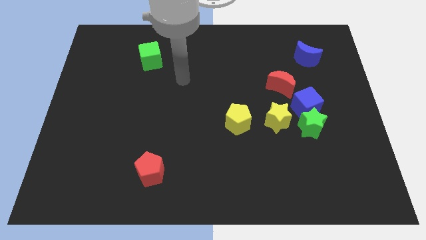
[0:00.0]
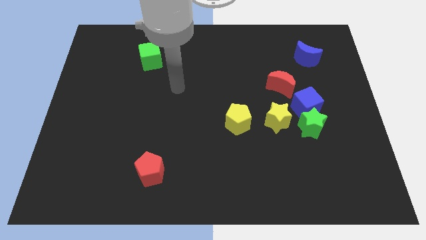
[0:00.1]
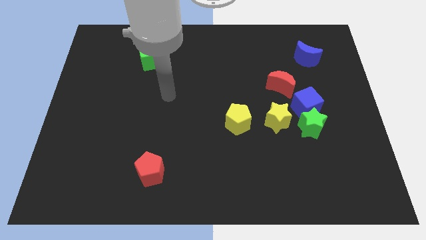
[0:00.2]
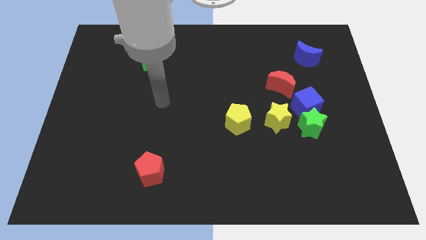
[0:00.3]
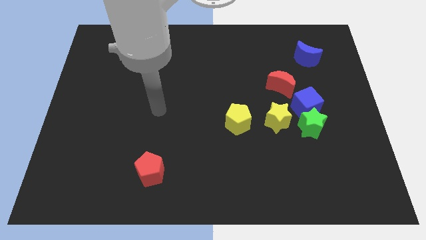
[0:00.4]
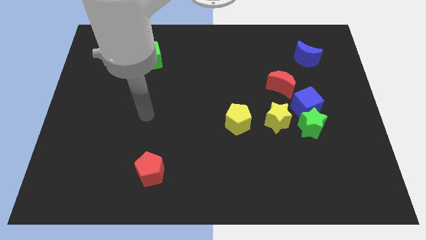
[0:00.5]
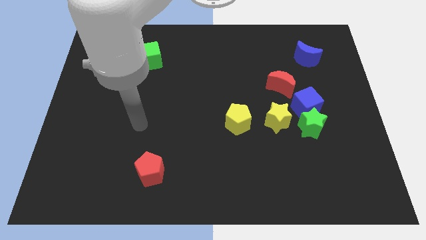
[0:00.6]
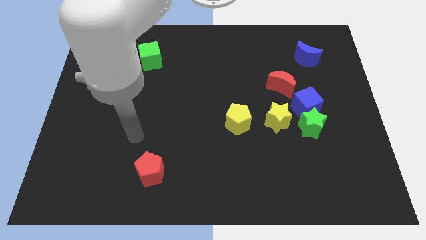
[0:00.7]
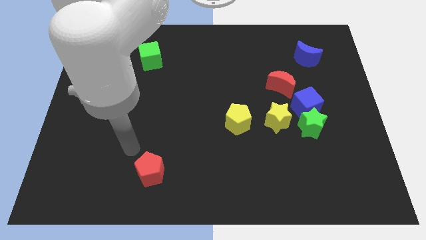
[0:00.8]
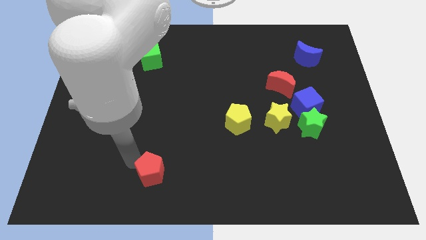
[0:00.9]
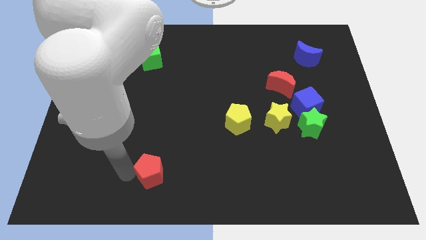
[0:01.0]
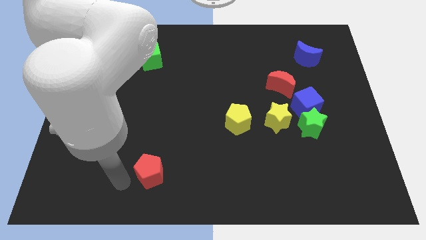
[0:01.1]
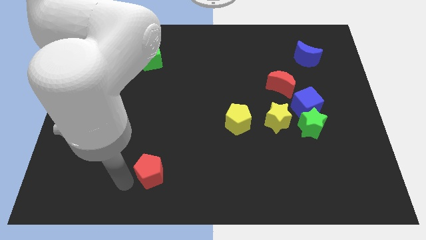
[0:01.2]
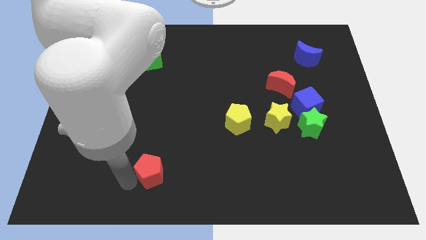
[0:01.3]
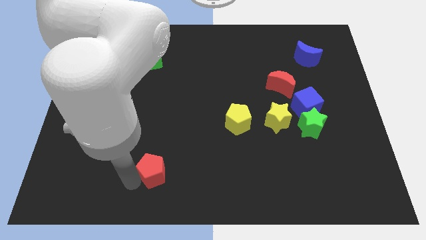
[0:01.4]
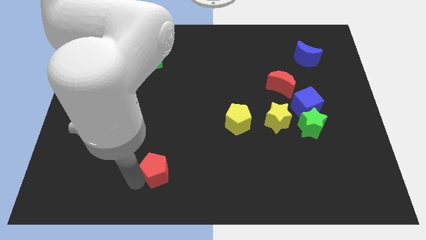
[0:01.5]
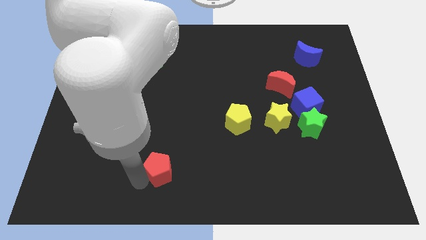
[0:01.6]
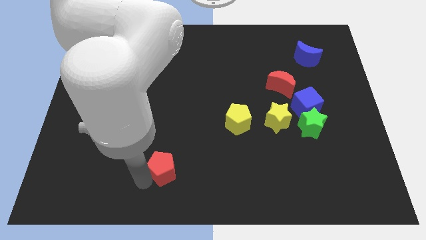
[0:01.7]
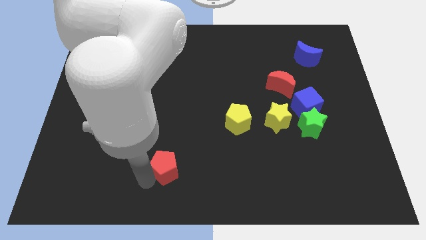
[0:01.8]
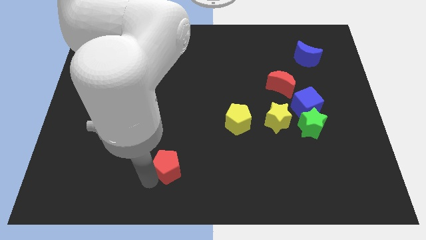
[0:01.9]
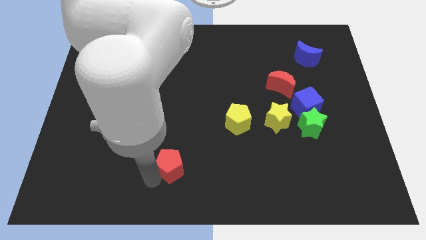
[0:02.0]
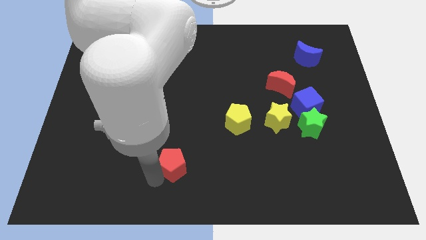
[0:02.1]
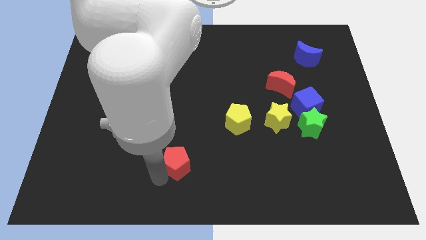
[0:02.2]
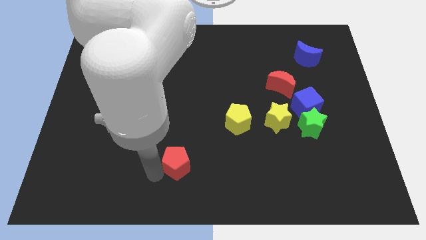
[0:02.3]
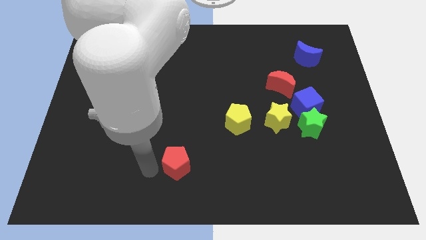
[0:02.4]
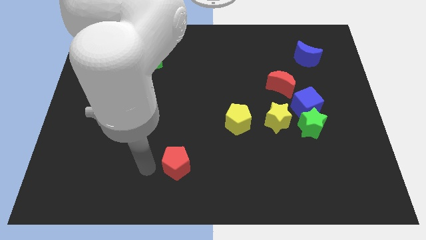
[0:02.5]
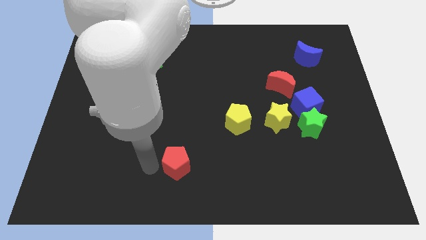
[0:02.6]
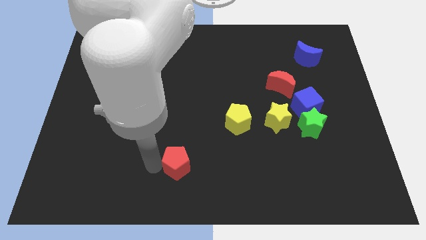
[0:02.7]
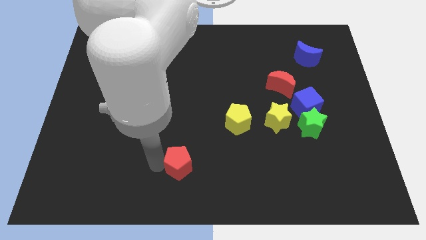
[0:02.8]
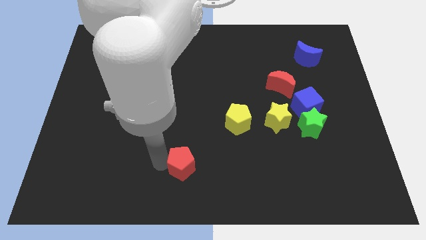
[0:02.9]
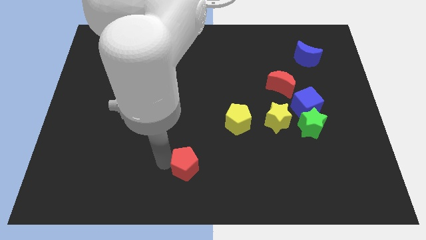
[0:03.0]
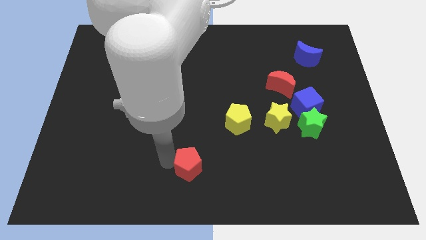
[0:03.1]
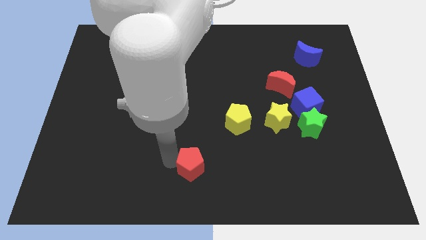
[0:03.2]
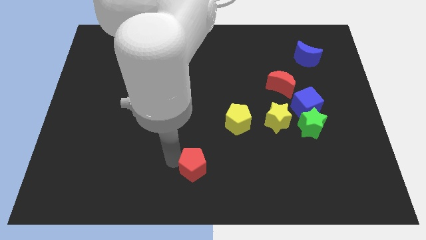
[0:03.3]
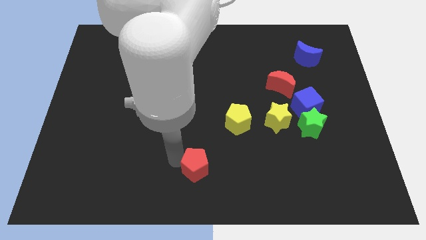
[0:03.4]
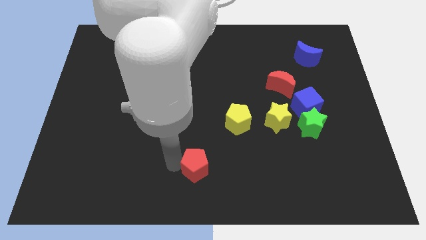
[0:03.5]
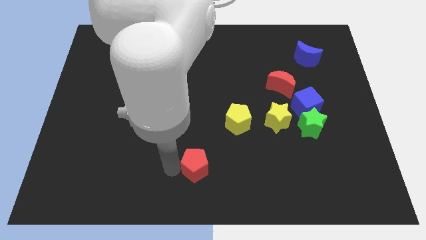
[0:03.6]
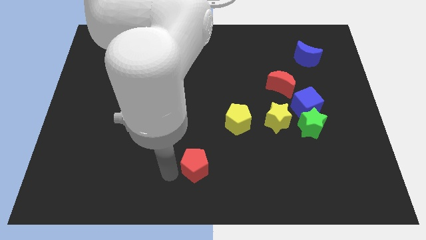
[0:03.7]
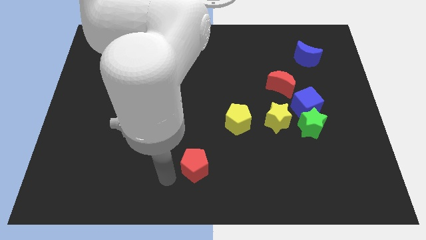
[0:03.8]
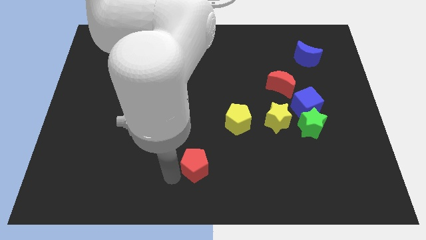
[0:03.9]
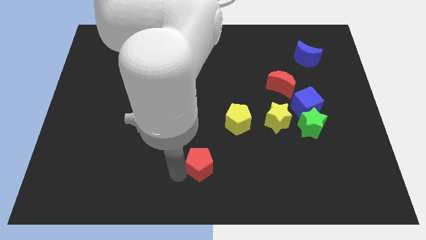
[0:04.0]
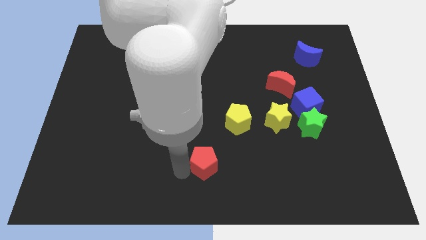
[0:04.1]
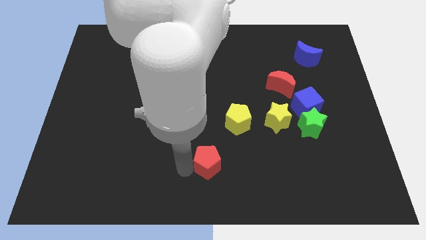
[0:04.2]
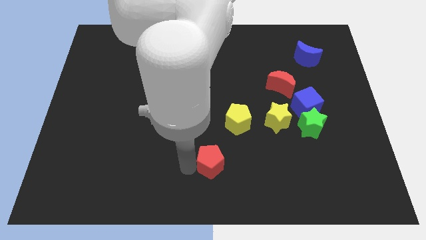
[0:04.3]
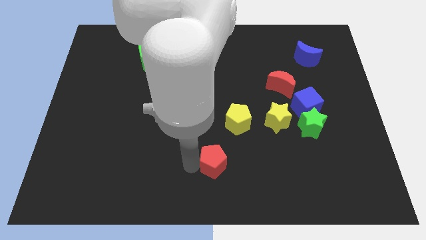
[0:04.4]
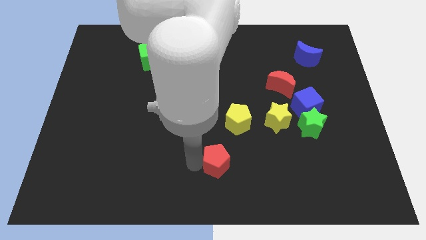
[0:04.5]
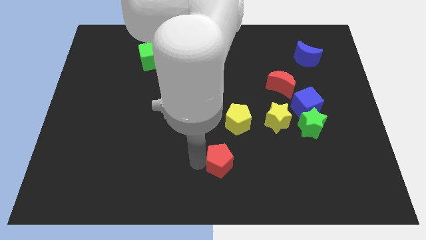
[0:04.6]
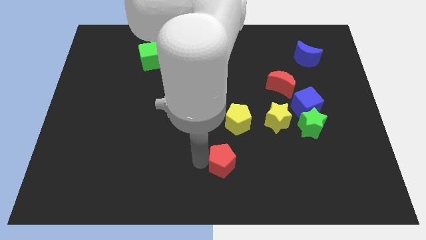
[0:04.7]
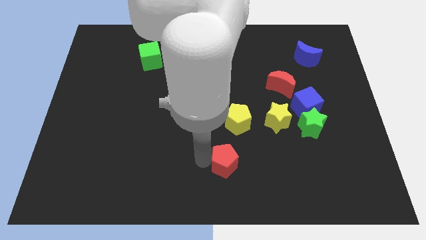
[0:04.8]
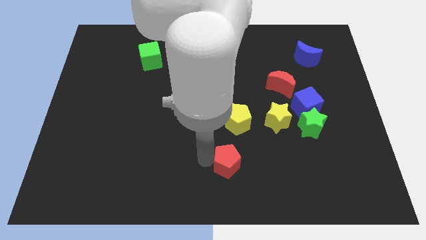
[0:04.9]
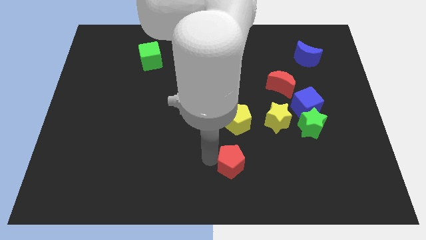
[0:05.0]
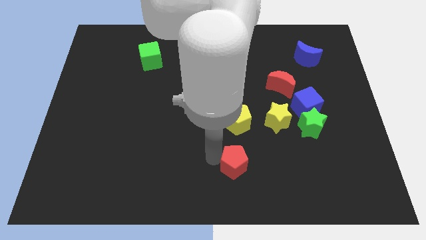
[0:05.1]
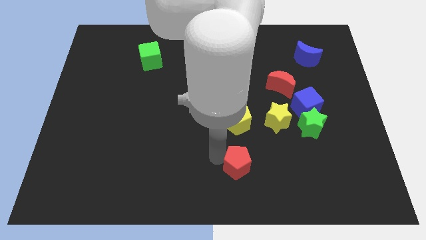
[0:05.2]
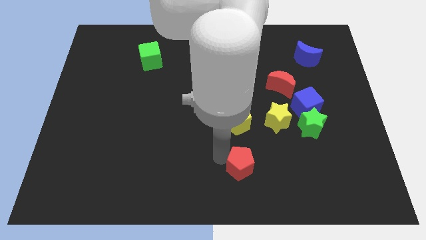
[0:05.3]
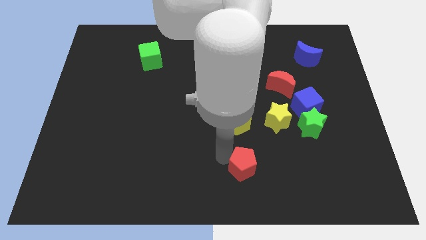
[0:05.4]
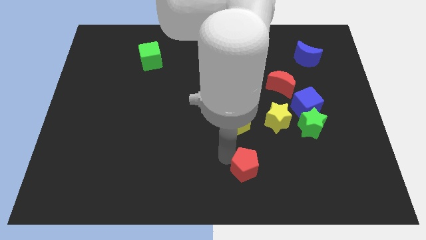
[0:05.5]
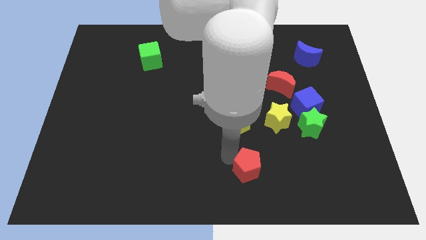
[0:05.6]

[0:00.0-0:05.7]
slide the red pentagon right

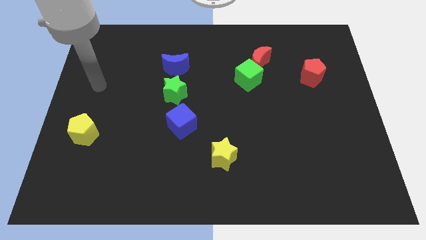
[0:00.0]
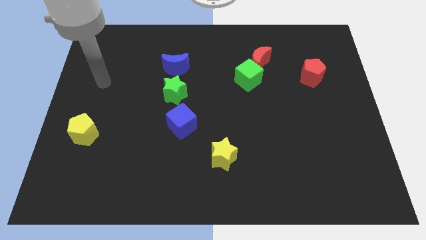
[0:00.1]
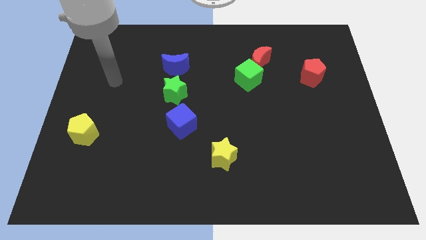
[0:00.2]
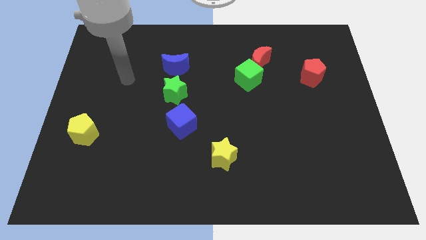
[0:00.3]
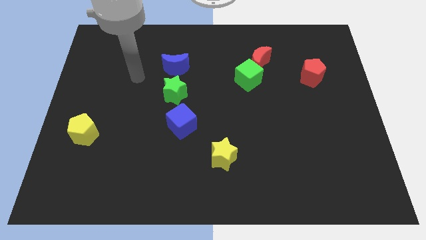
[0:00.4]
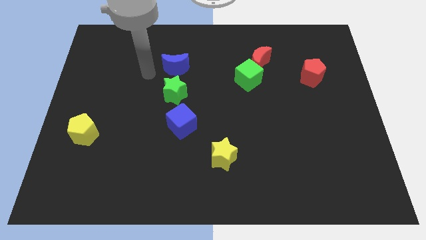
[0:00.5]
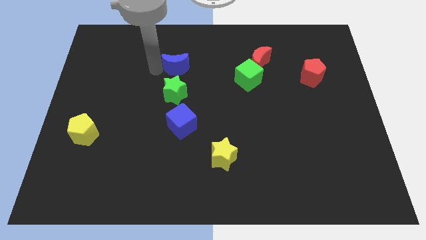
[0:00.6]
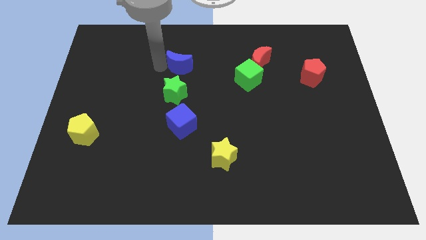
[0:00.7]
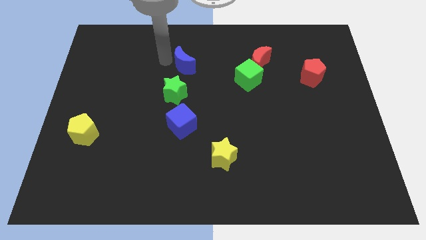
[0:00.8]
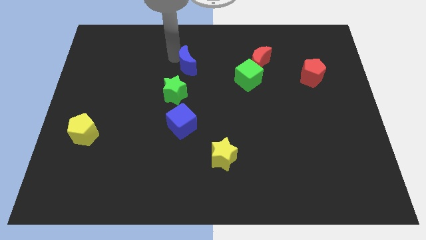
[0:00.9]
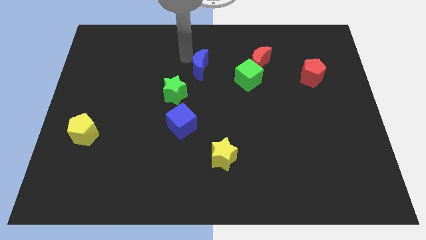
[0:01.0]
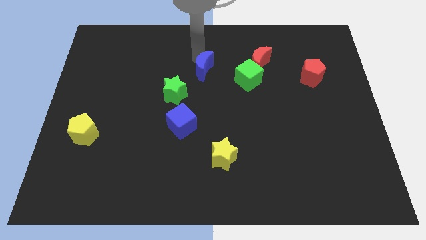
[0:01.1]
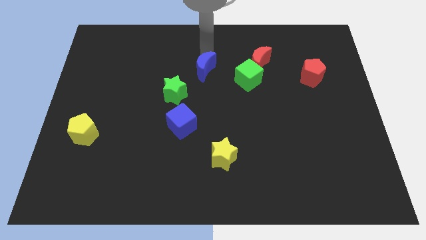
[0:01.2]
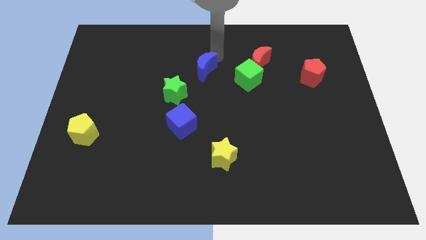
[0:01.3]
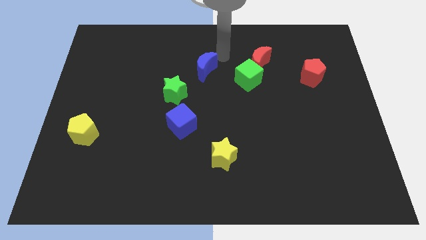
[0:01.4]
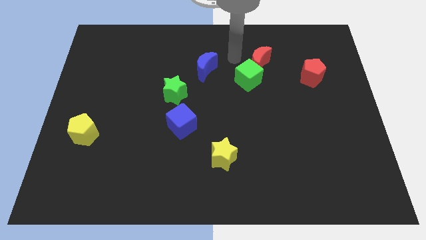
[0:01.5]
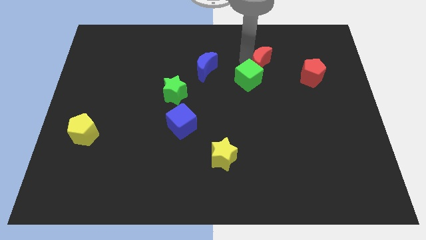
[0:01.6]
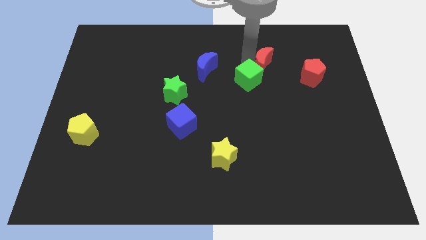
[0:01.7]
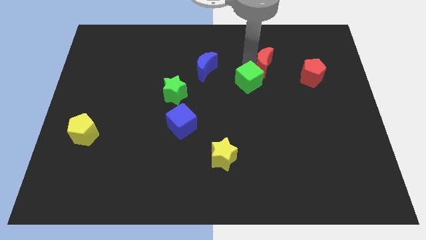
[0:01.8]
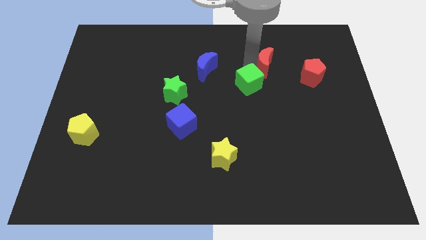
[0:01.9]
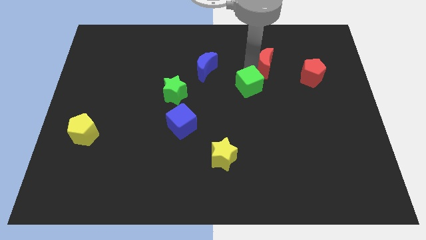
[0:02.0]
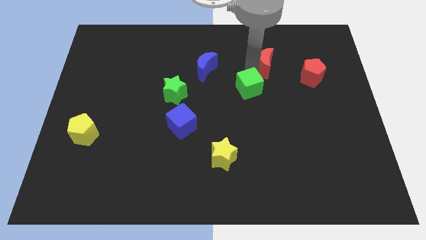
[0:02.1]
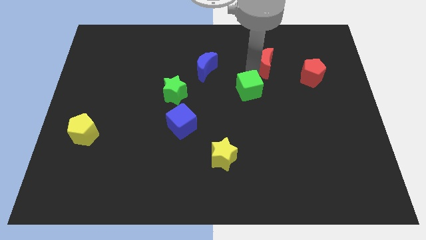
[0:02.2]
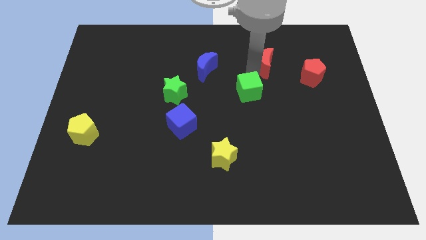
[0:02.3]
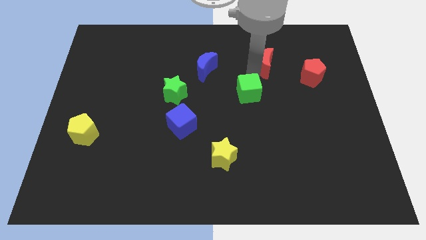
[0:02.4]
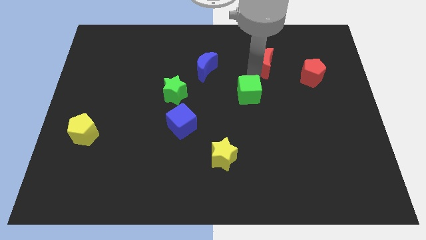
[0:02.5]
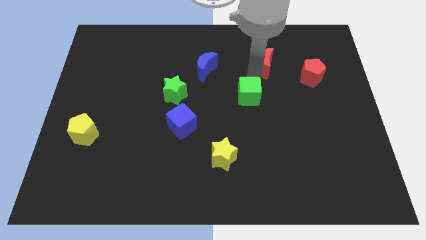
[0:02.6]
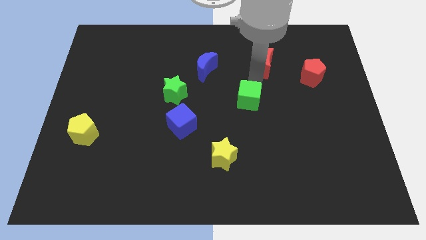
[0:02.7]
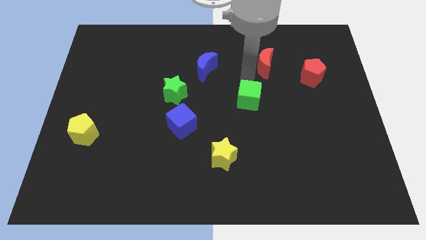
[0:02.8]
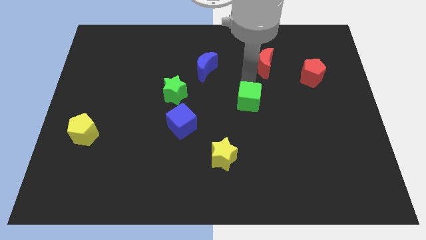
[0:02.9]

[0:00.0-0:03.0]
push the green cube slightly downwards
